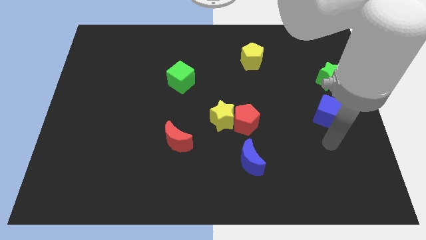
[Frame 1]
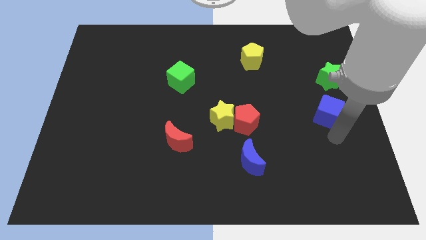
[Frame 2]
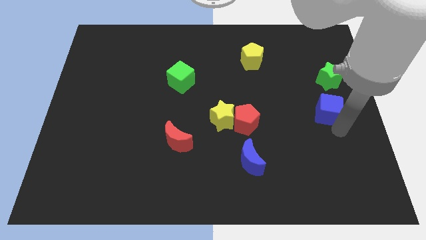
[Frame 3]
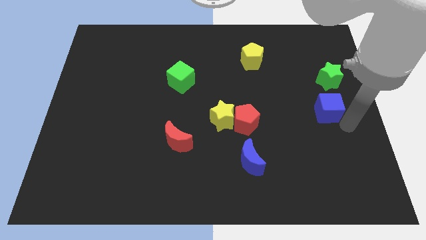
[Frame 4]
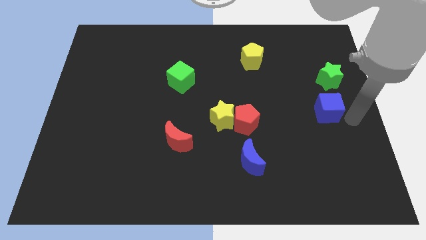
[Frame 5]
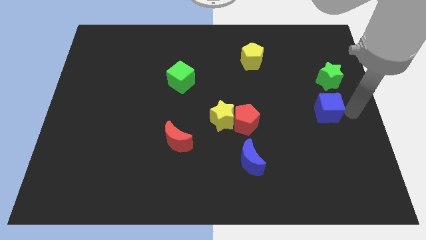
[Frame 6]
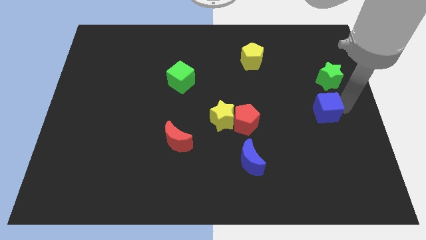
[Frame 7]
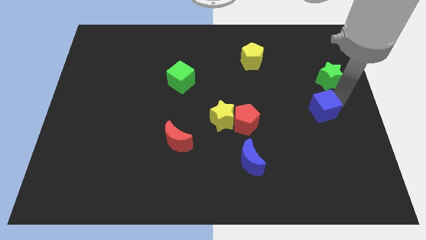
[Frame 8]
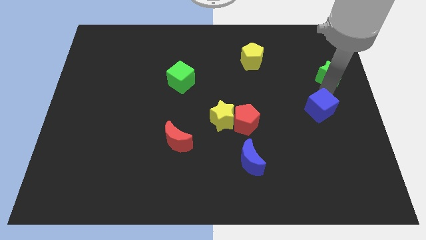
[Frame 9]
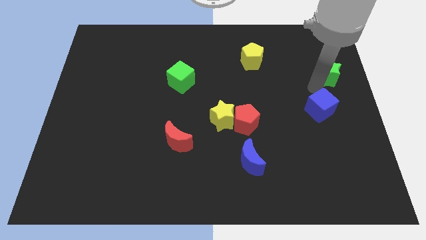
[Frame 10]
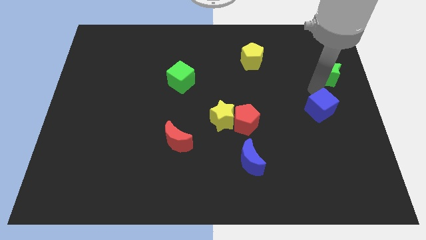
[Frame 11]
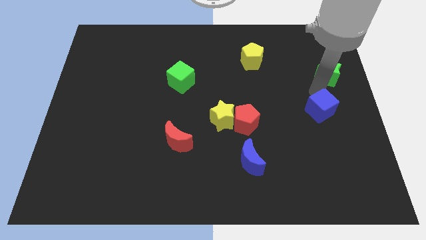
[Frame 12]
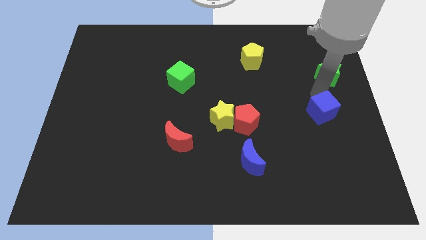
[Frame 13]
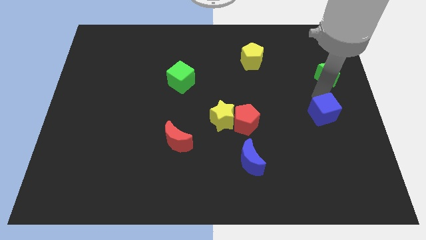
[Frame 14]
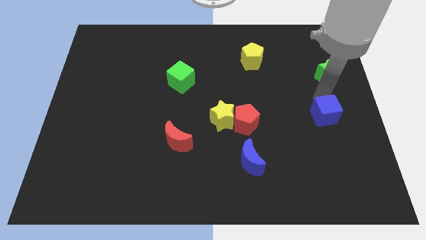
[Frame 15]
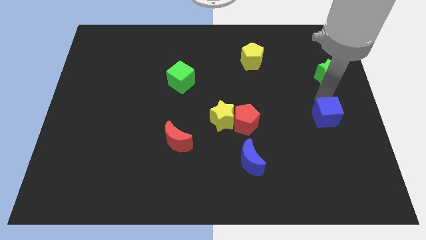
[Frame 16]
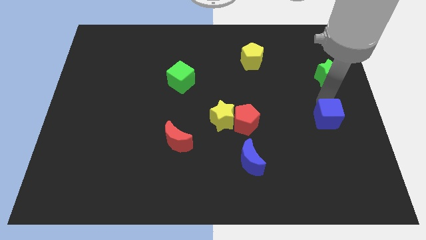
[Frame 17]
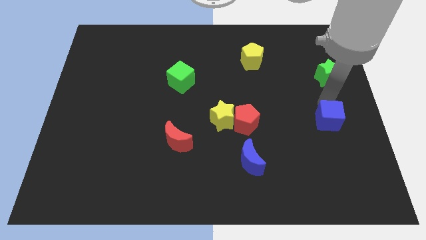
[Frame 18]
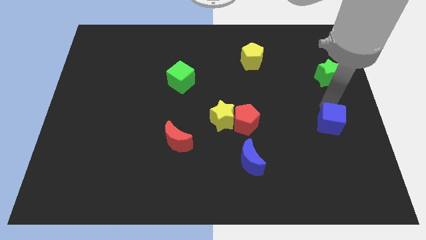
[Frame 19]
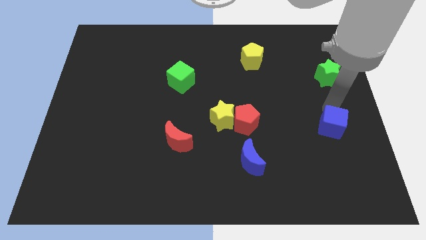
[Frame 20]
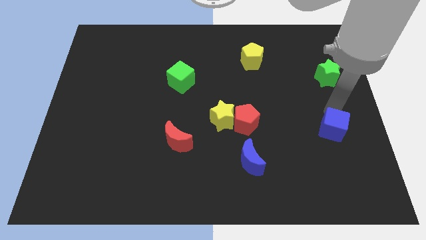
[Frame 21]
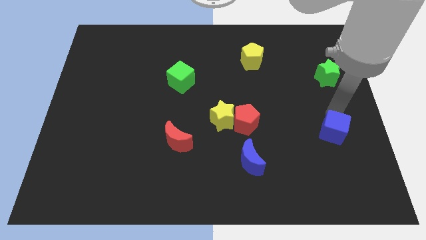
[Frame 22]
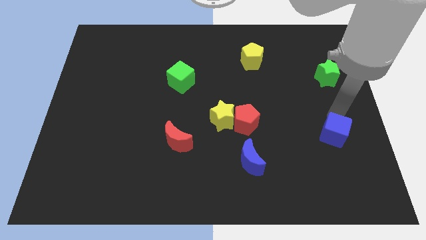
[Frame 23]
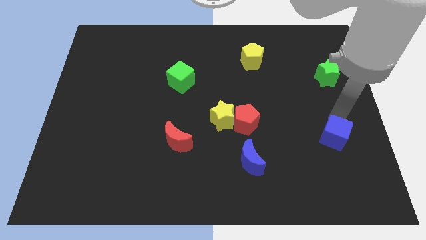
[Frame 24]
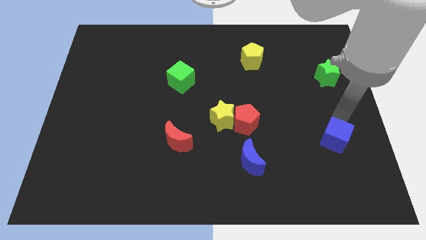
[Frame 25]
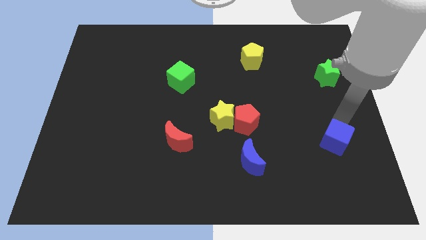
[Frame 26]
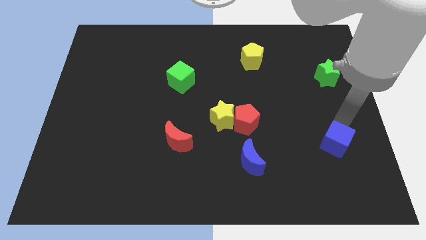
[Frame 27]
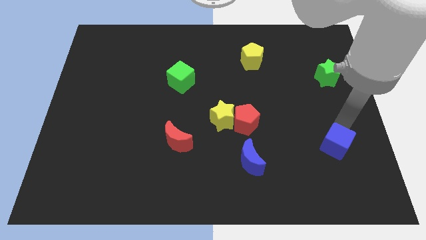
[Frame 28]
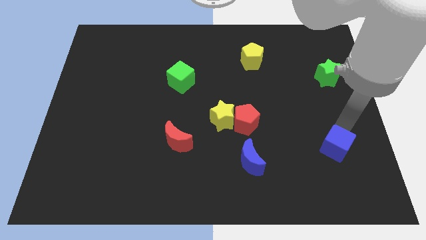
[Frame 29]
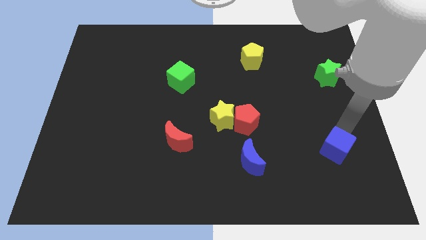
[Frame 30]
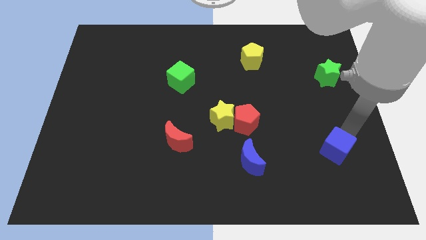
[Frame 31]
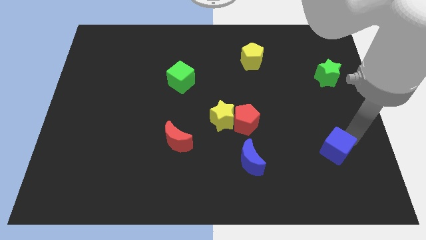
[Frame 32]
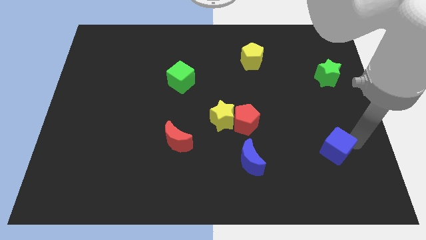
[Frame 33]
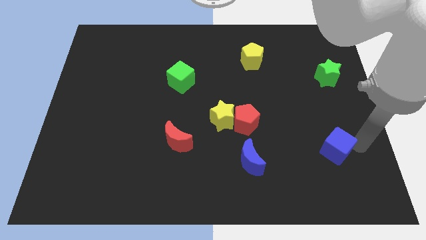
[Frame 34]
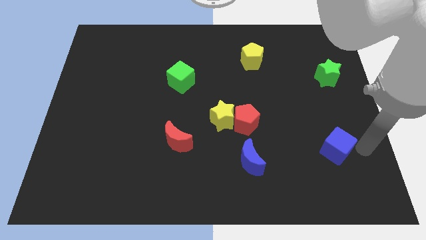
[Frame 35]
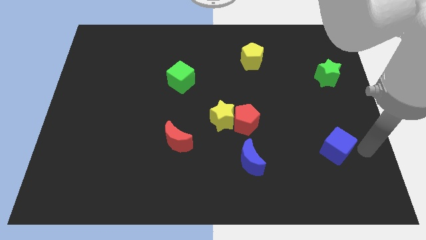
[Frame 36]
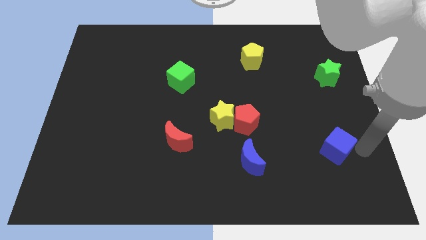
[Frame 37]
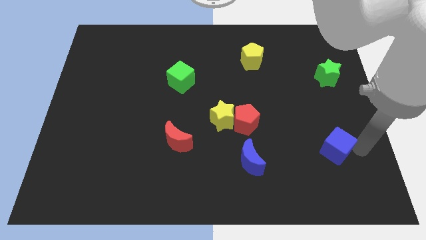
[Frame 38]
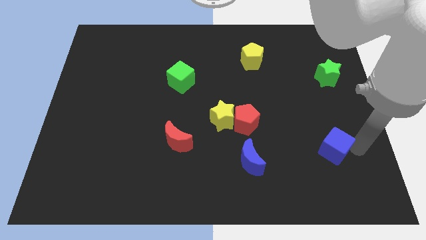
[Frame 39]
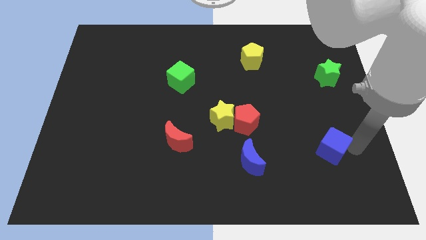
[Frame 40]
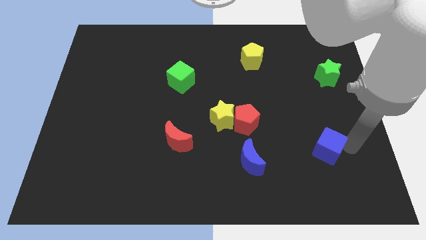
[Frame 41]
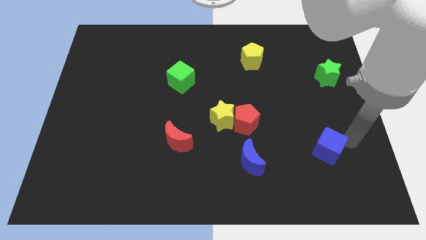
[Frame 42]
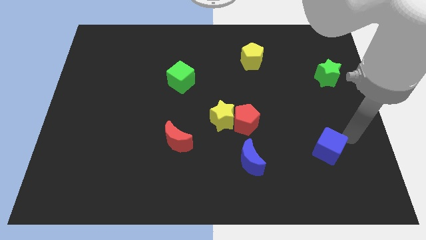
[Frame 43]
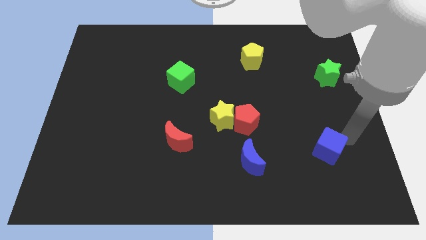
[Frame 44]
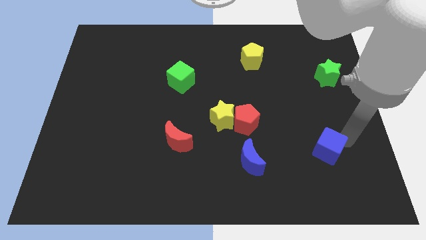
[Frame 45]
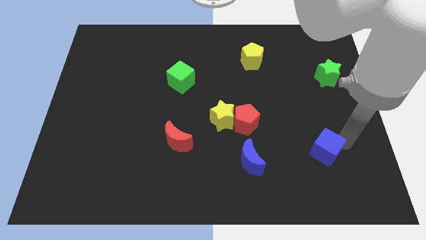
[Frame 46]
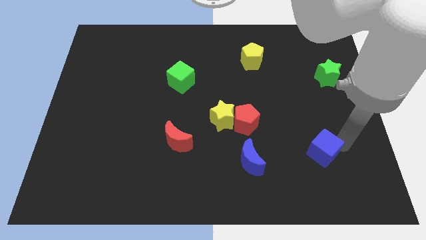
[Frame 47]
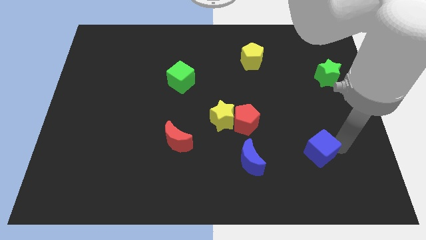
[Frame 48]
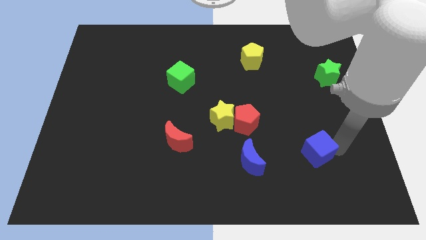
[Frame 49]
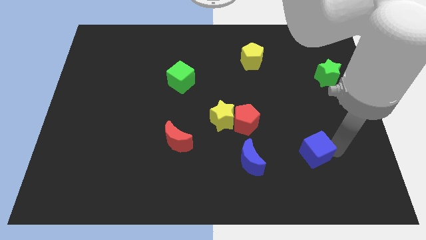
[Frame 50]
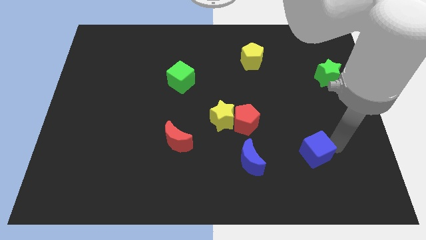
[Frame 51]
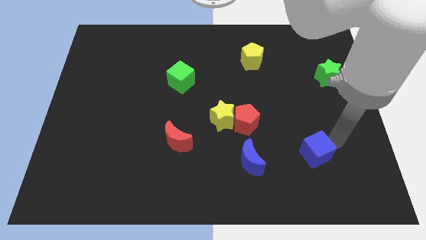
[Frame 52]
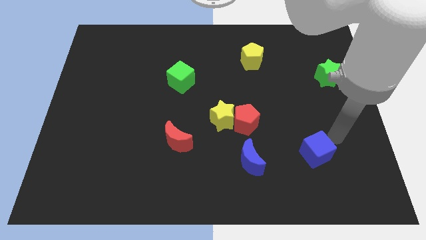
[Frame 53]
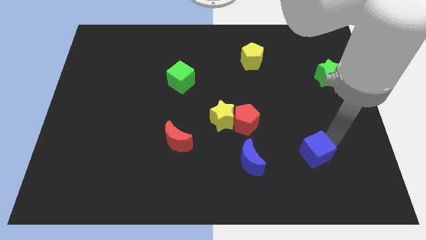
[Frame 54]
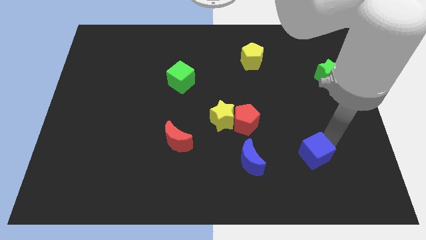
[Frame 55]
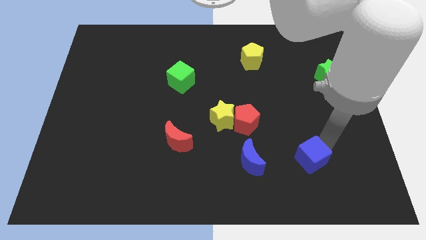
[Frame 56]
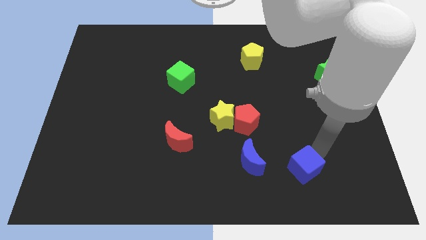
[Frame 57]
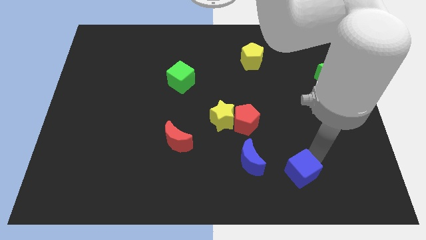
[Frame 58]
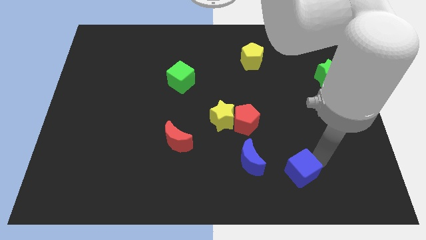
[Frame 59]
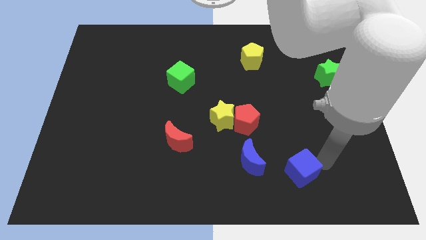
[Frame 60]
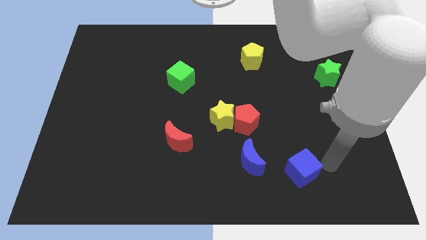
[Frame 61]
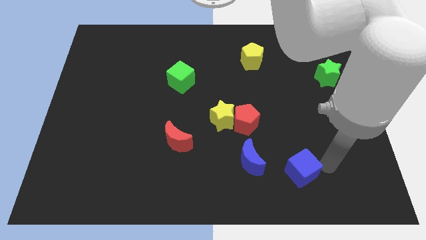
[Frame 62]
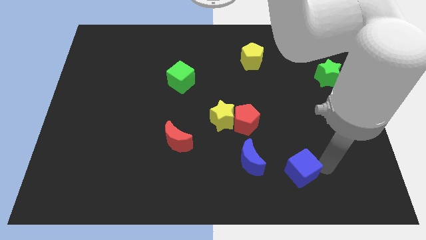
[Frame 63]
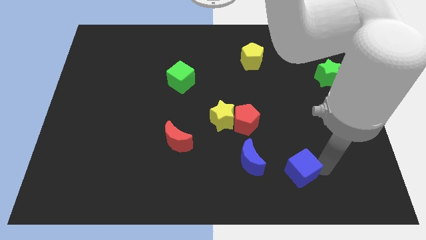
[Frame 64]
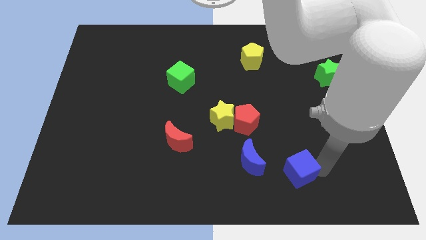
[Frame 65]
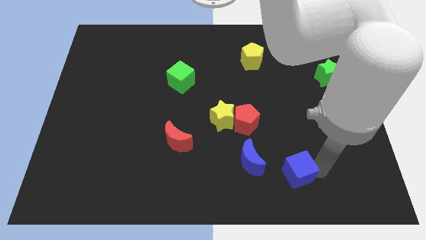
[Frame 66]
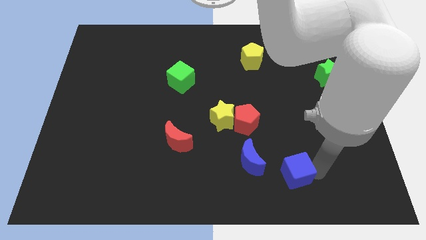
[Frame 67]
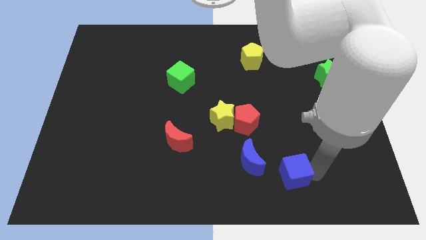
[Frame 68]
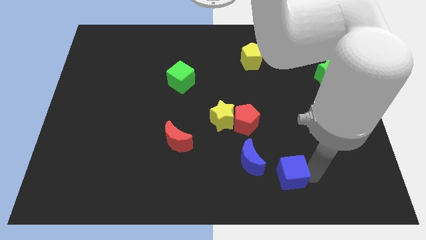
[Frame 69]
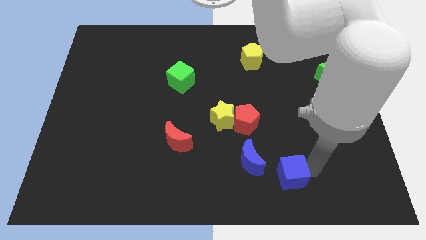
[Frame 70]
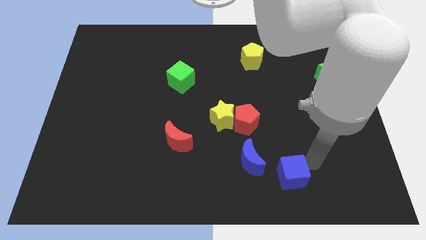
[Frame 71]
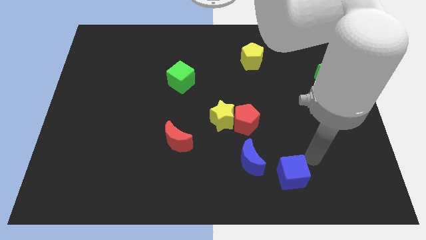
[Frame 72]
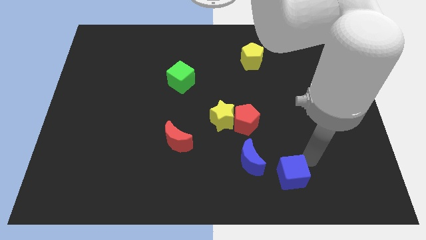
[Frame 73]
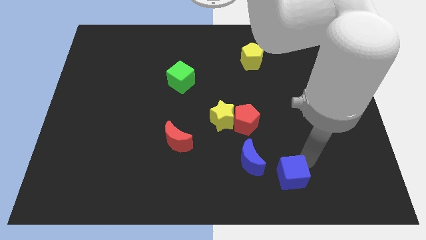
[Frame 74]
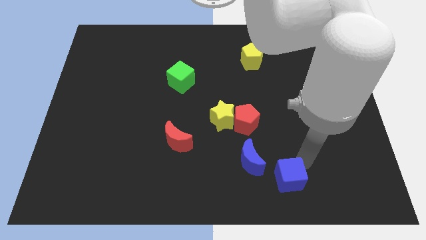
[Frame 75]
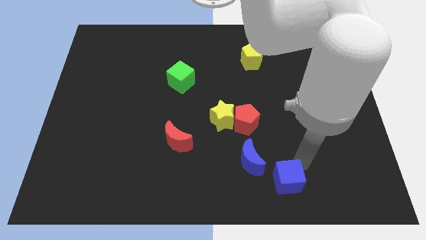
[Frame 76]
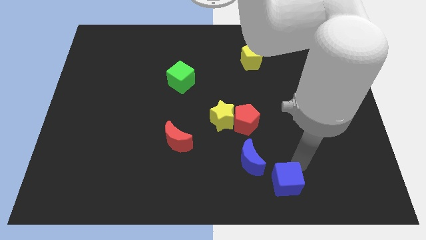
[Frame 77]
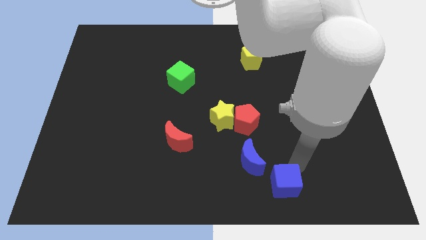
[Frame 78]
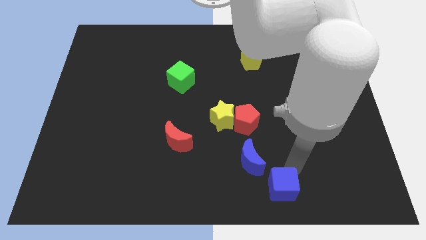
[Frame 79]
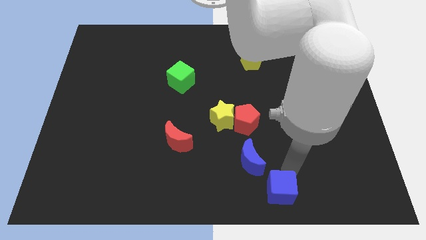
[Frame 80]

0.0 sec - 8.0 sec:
put the blue cube to the bottom side
